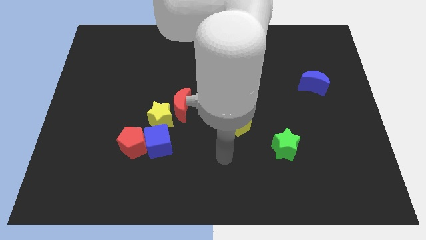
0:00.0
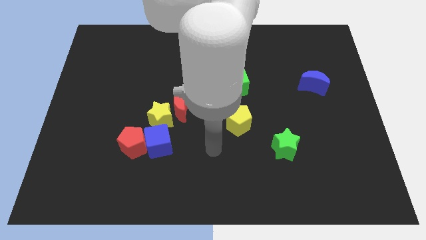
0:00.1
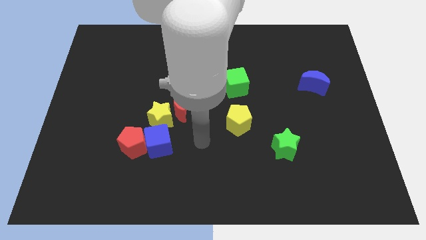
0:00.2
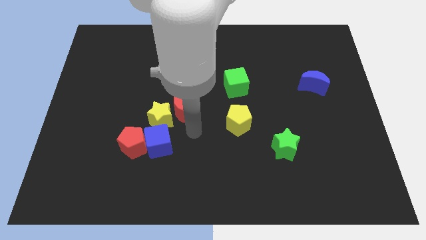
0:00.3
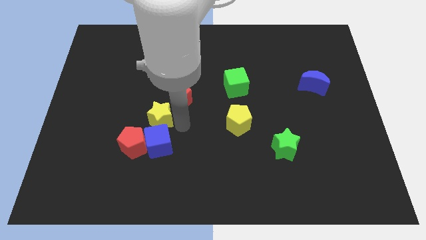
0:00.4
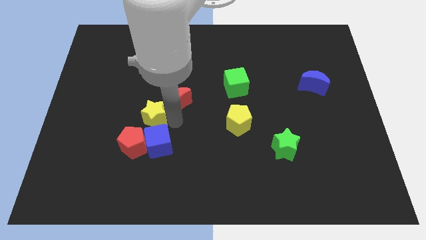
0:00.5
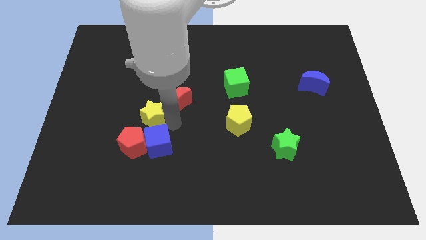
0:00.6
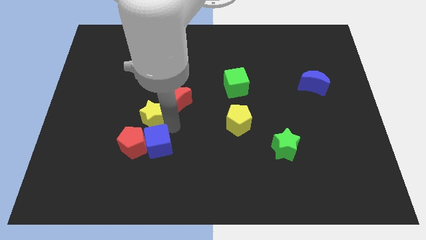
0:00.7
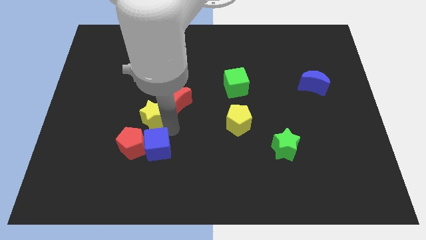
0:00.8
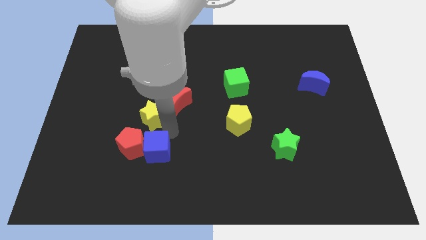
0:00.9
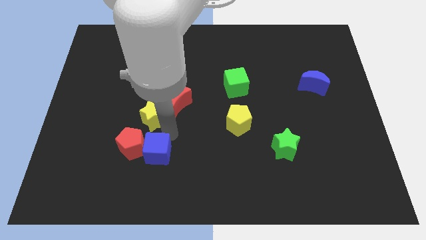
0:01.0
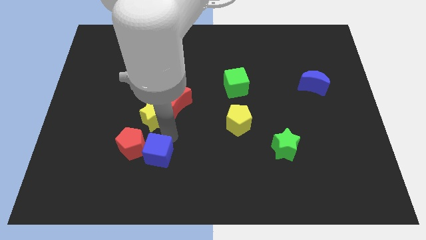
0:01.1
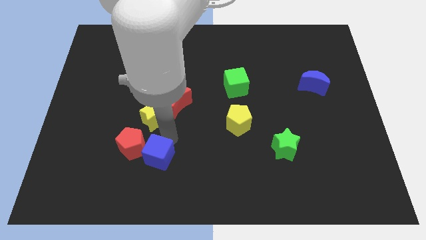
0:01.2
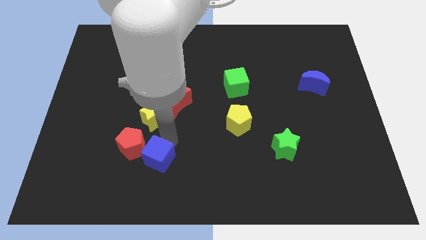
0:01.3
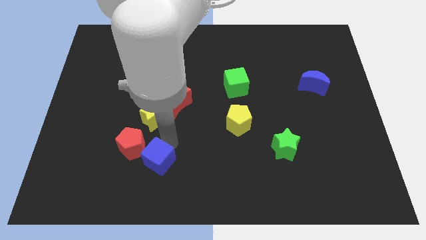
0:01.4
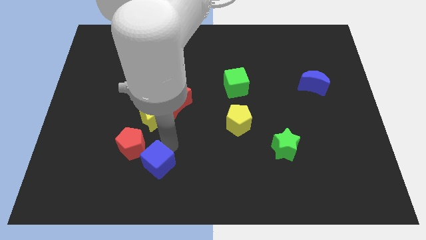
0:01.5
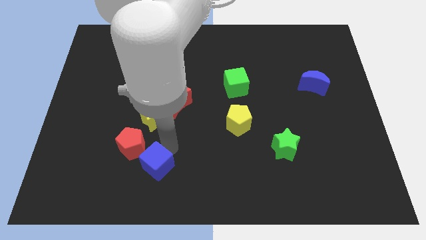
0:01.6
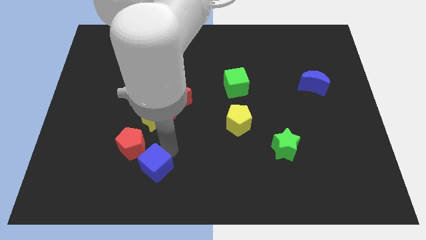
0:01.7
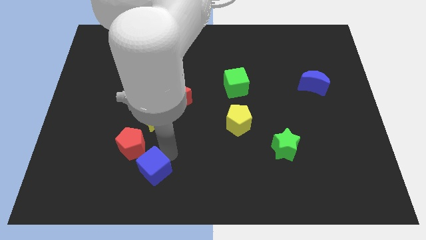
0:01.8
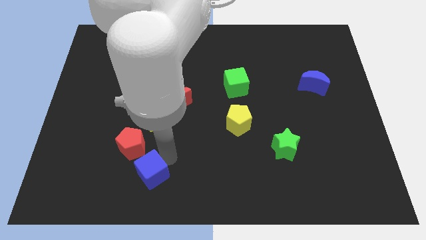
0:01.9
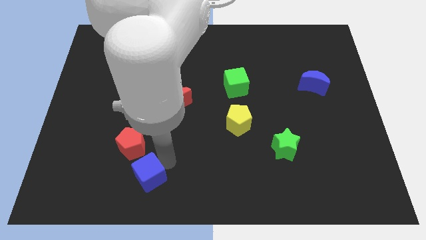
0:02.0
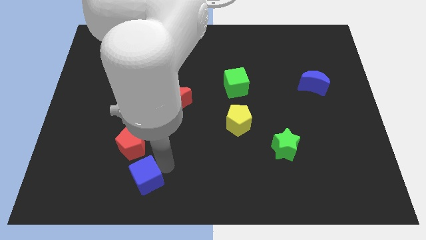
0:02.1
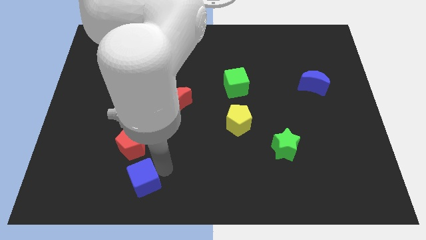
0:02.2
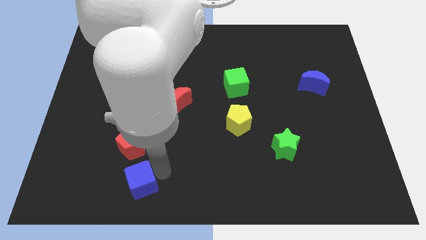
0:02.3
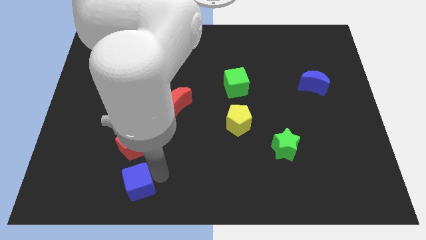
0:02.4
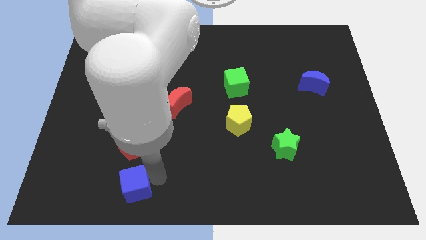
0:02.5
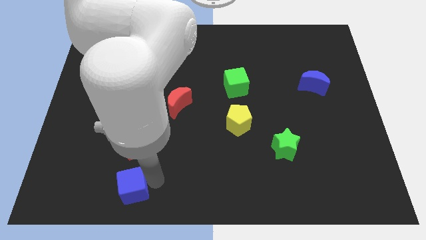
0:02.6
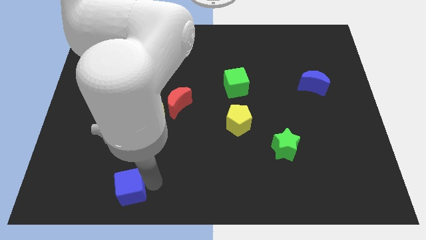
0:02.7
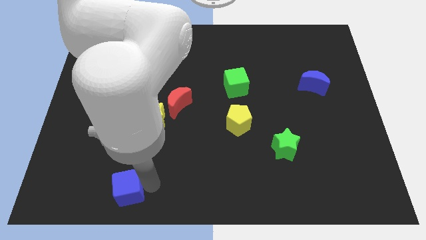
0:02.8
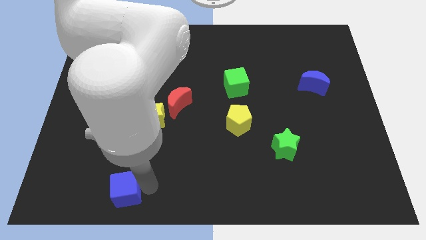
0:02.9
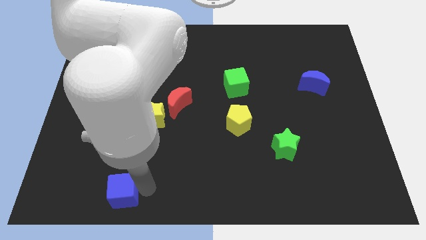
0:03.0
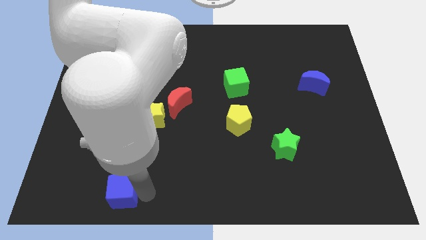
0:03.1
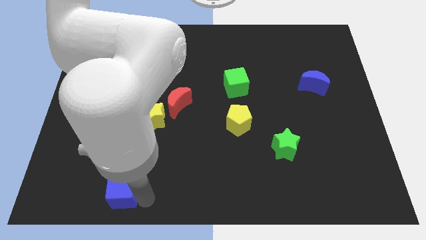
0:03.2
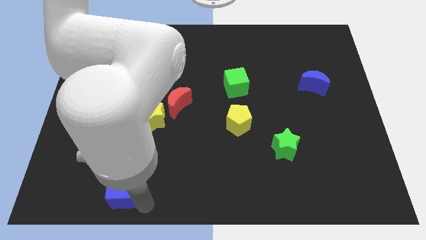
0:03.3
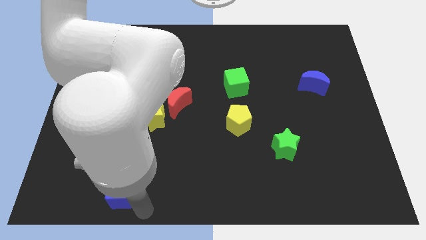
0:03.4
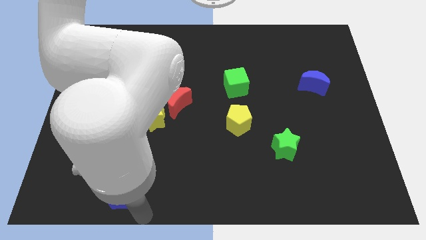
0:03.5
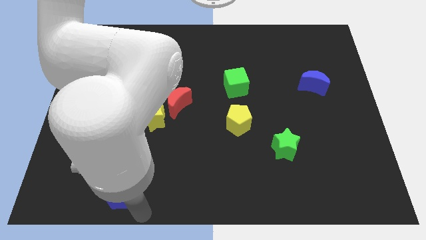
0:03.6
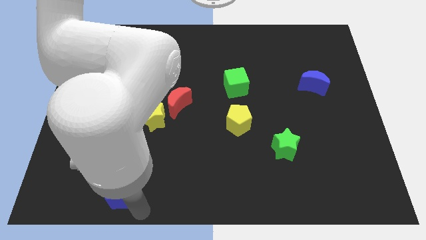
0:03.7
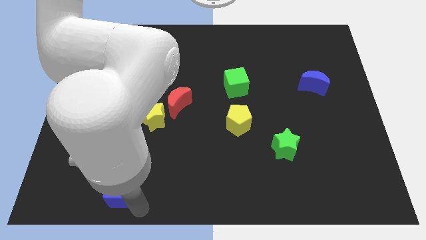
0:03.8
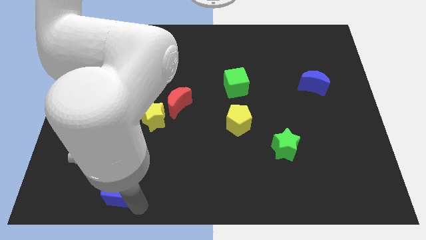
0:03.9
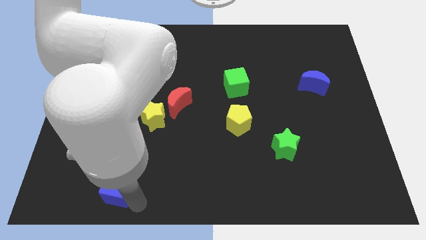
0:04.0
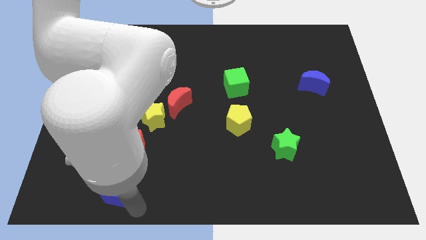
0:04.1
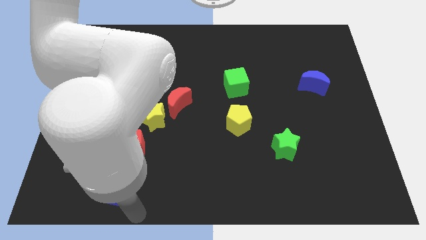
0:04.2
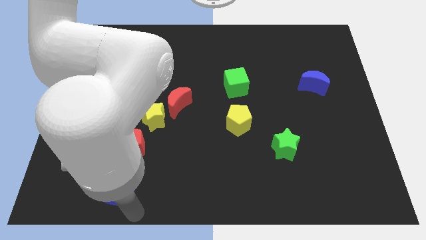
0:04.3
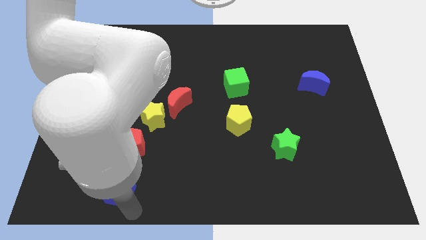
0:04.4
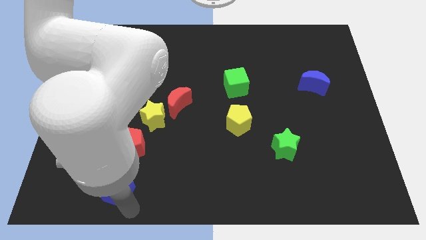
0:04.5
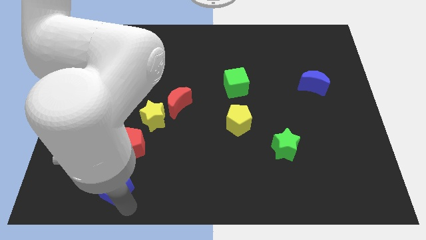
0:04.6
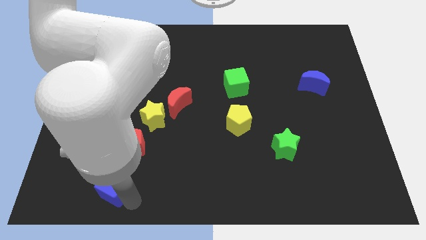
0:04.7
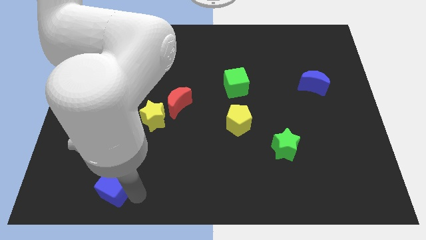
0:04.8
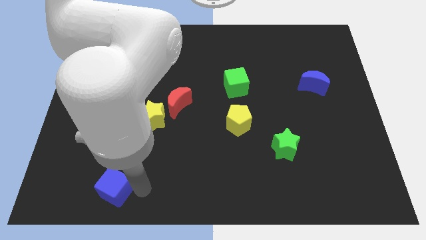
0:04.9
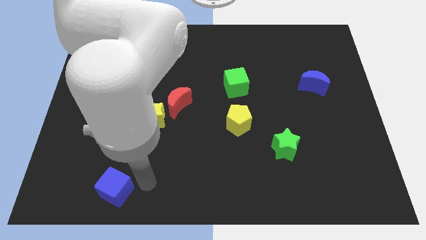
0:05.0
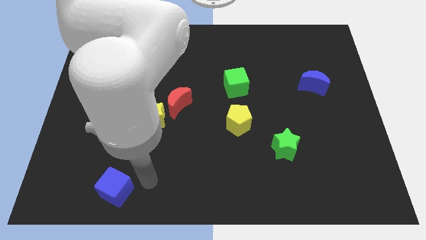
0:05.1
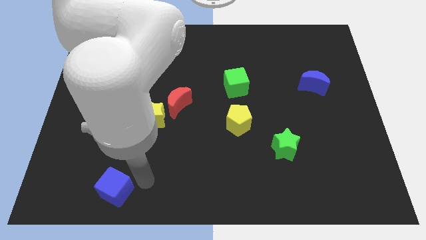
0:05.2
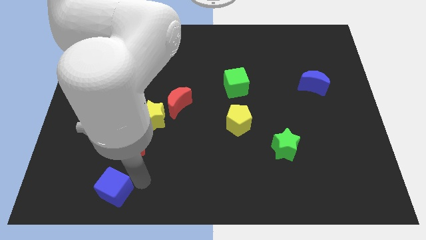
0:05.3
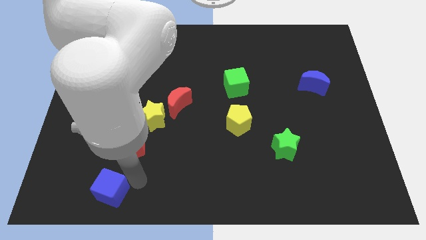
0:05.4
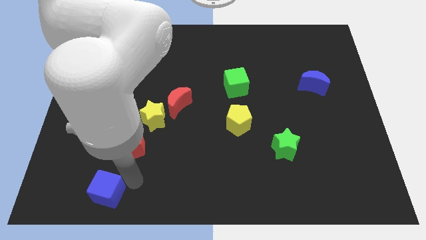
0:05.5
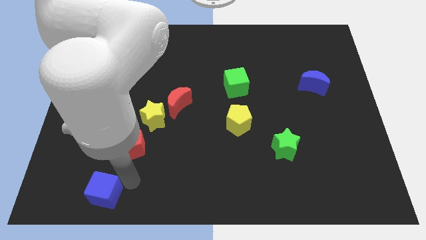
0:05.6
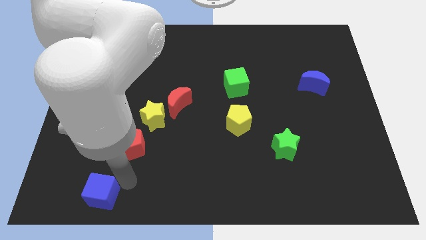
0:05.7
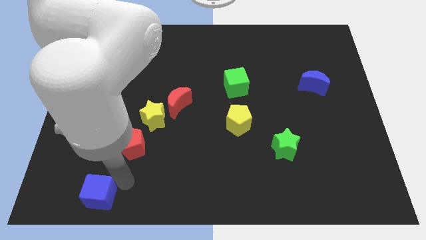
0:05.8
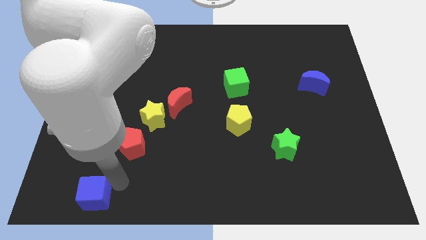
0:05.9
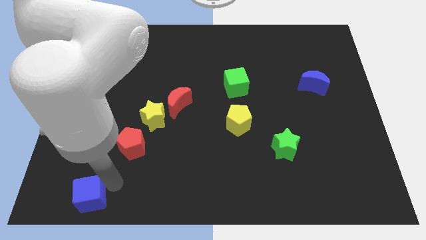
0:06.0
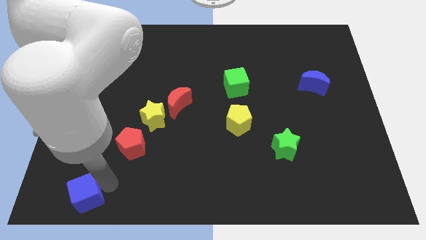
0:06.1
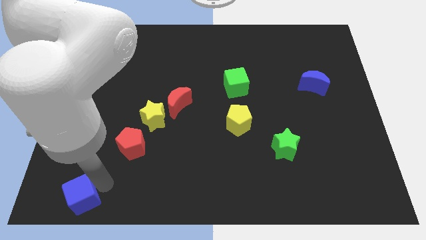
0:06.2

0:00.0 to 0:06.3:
push the blue cube to the bottom left of the board
